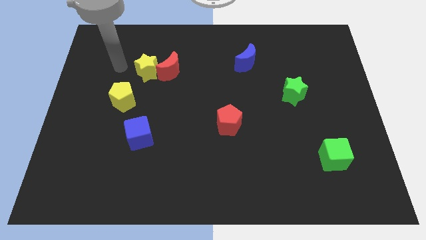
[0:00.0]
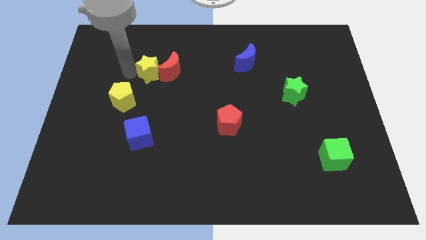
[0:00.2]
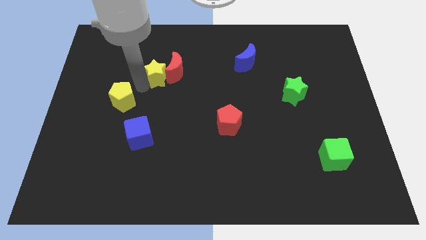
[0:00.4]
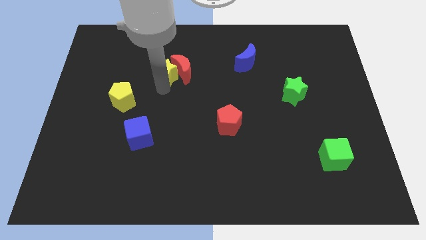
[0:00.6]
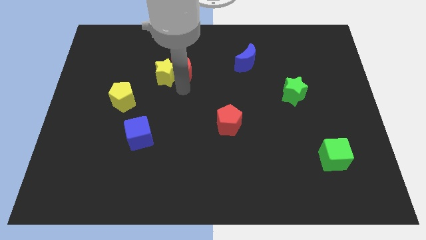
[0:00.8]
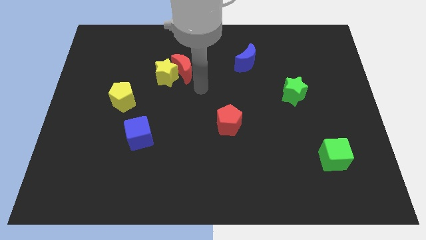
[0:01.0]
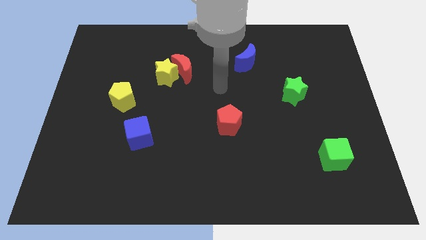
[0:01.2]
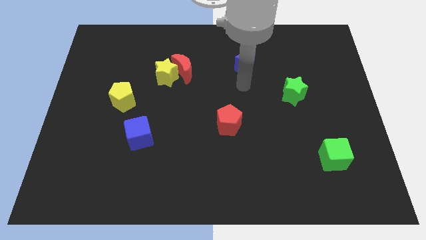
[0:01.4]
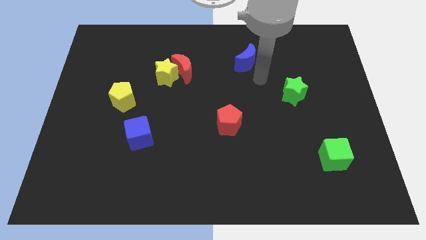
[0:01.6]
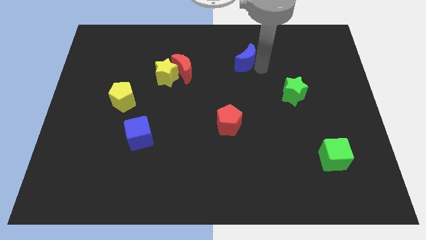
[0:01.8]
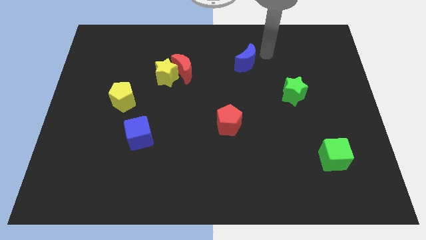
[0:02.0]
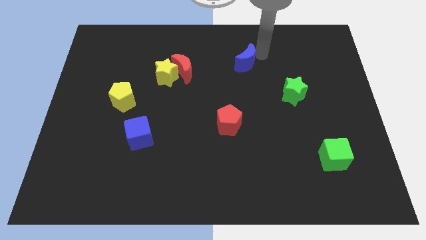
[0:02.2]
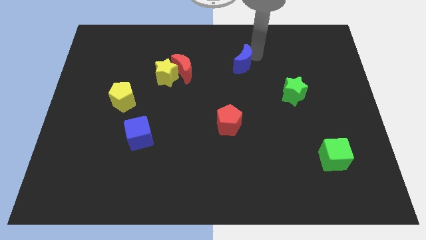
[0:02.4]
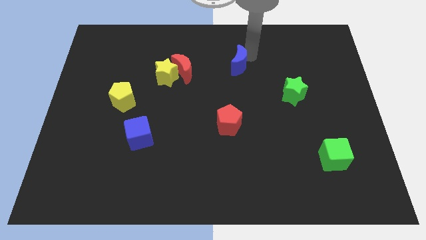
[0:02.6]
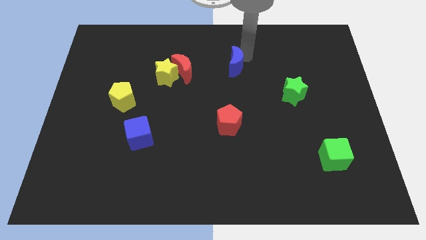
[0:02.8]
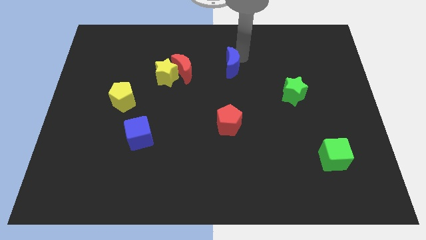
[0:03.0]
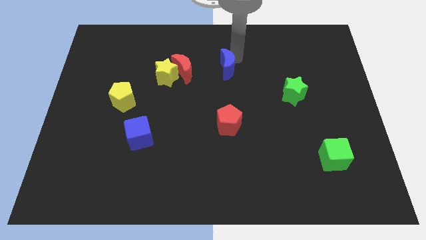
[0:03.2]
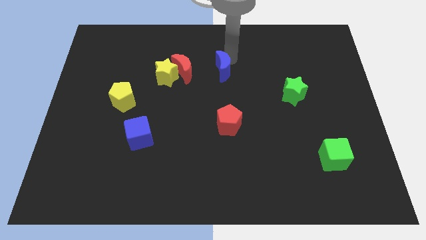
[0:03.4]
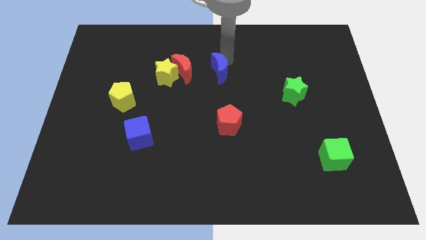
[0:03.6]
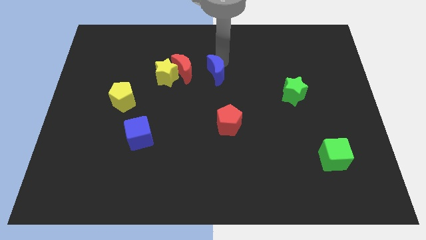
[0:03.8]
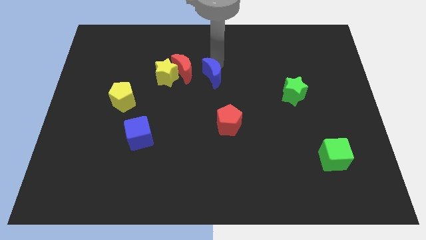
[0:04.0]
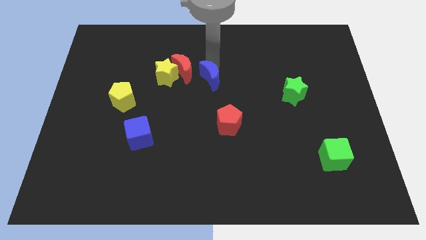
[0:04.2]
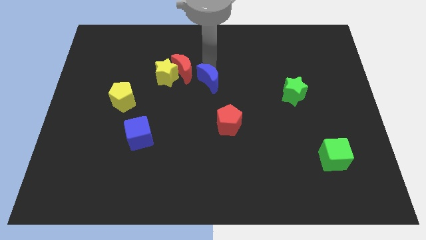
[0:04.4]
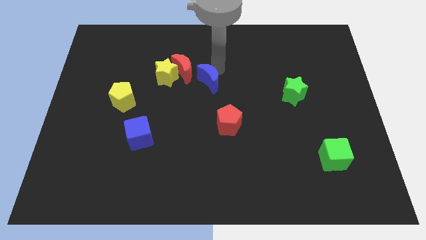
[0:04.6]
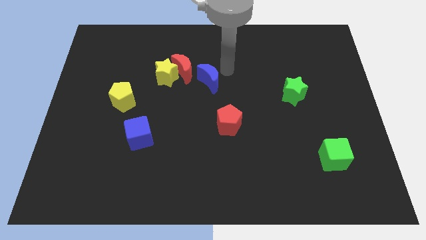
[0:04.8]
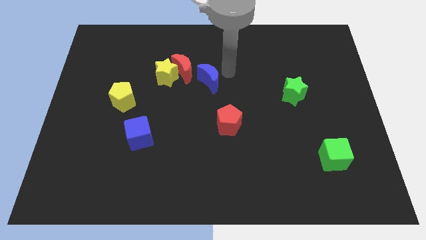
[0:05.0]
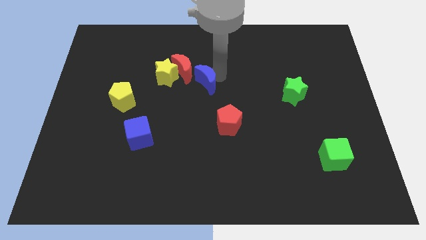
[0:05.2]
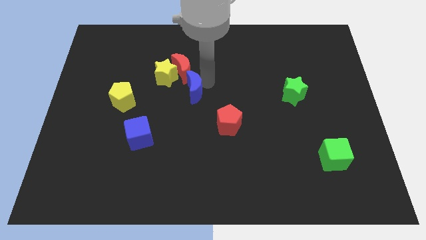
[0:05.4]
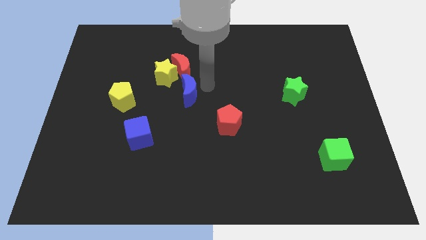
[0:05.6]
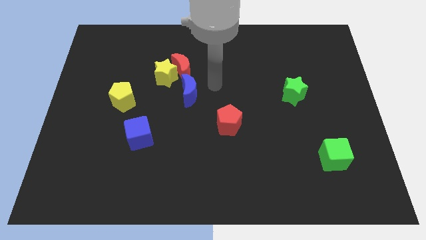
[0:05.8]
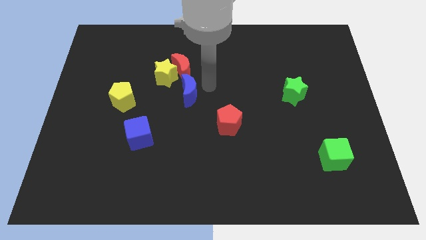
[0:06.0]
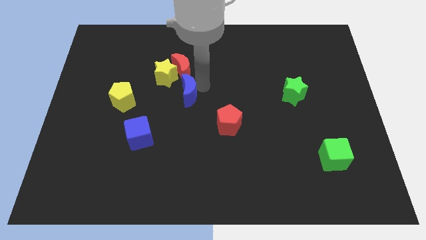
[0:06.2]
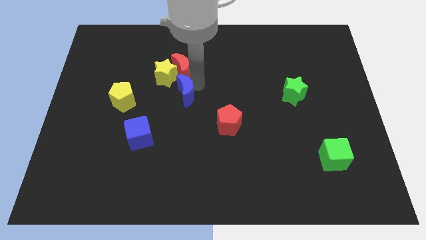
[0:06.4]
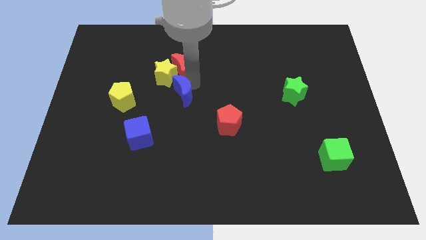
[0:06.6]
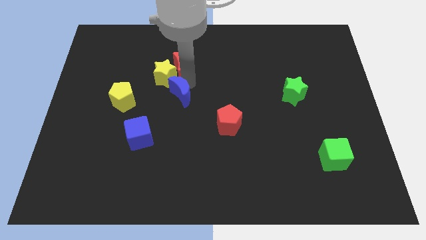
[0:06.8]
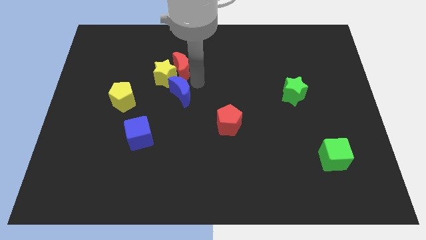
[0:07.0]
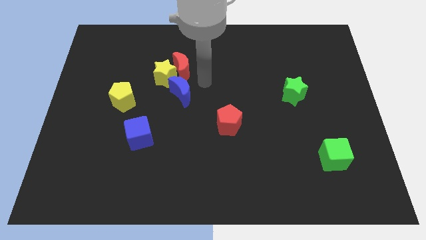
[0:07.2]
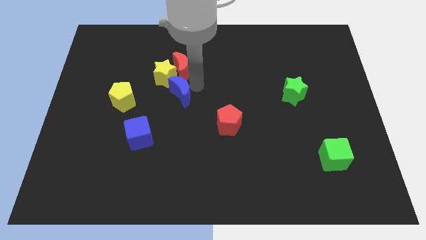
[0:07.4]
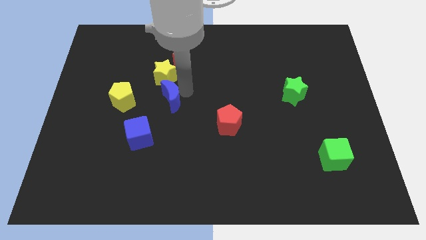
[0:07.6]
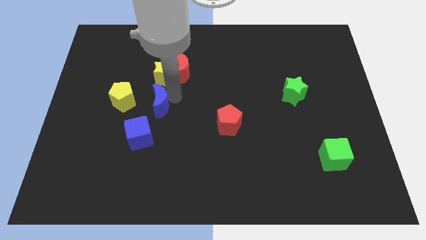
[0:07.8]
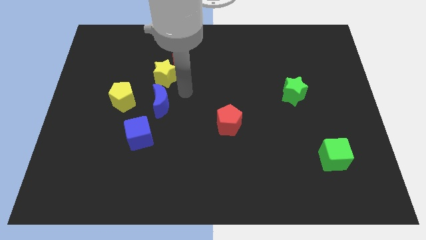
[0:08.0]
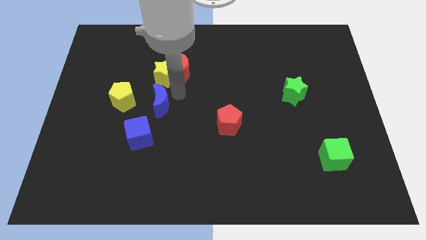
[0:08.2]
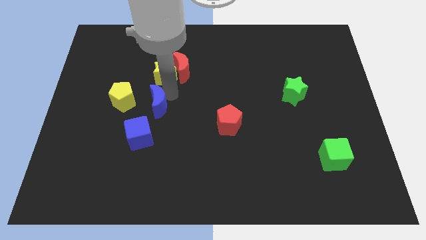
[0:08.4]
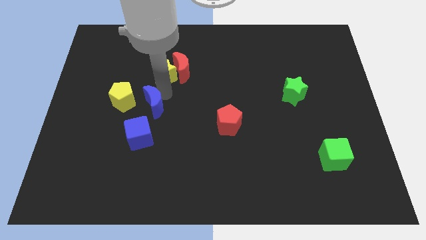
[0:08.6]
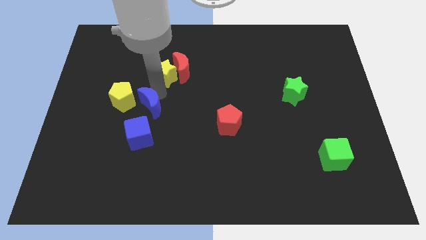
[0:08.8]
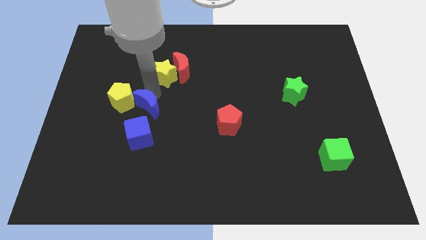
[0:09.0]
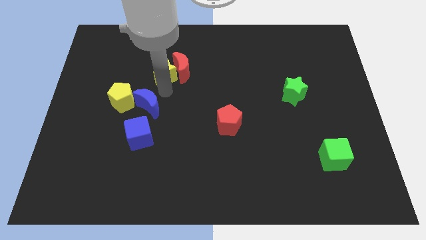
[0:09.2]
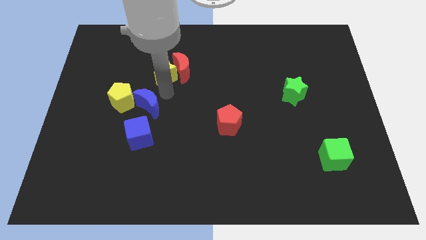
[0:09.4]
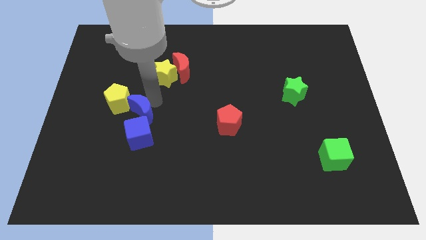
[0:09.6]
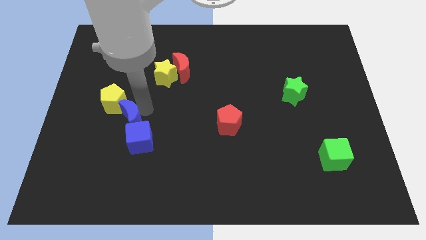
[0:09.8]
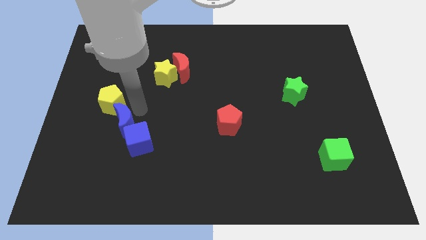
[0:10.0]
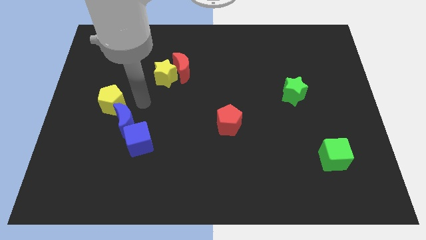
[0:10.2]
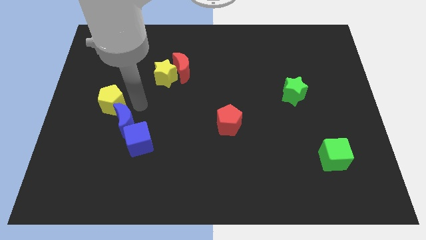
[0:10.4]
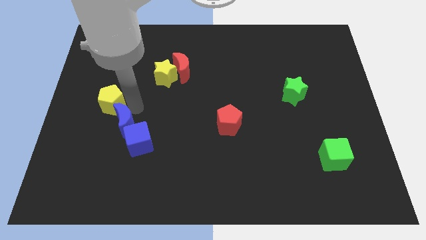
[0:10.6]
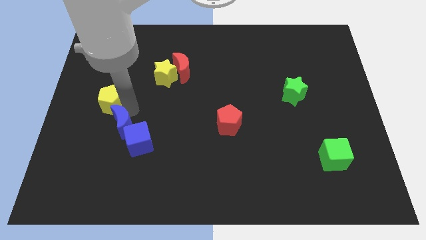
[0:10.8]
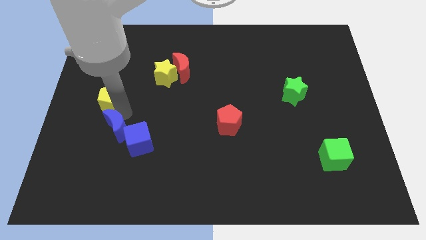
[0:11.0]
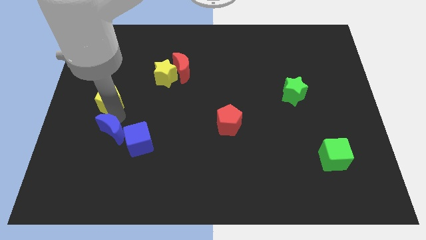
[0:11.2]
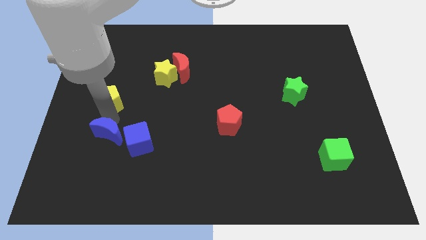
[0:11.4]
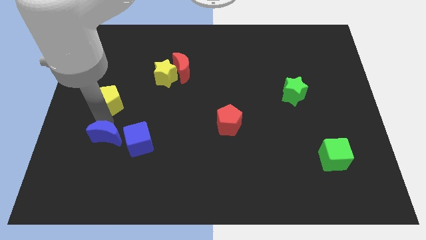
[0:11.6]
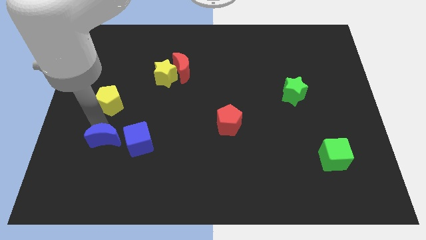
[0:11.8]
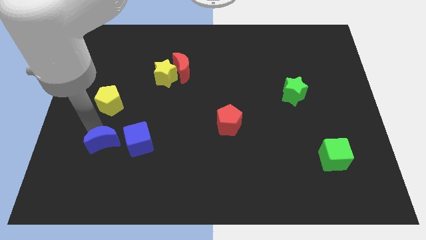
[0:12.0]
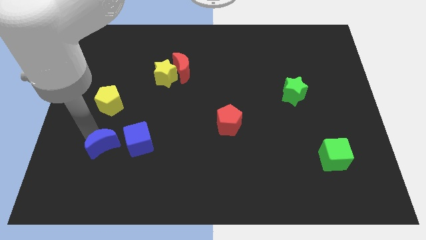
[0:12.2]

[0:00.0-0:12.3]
put the blue moon to the bottom left of the blue cube

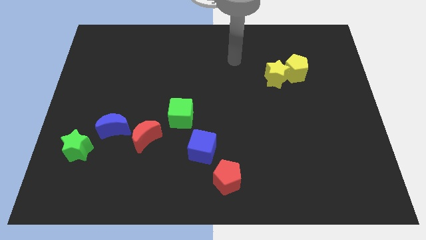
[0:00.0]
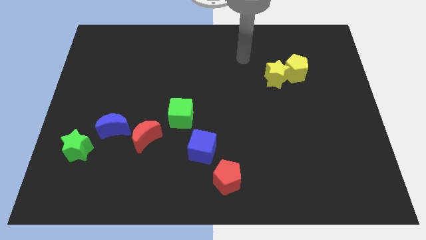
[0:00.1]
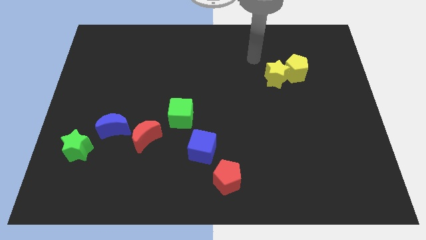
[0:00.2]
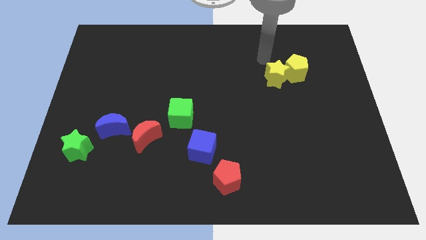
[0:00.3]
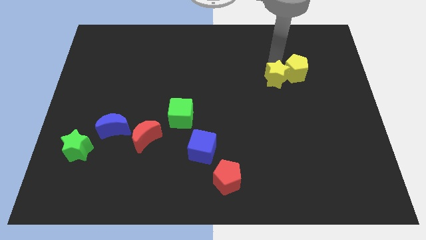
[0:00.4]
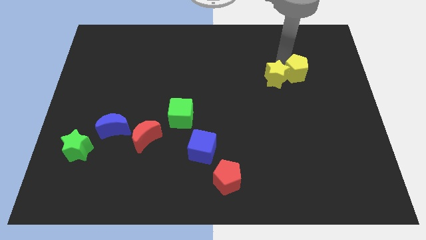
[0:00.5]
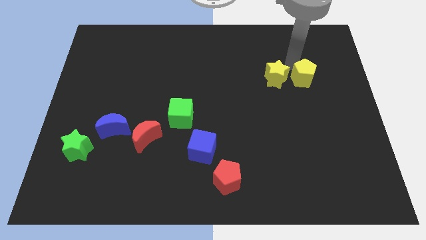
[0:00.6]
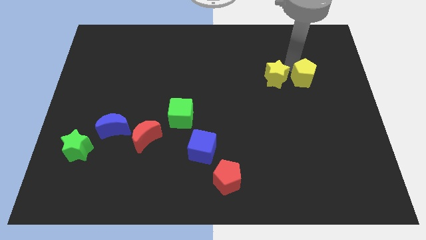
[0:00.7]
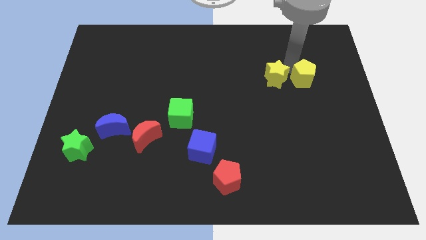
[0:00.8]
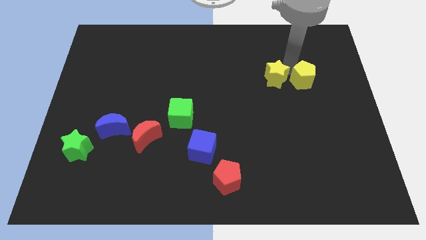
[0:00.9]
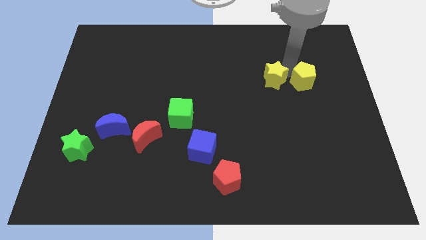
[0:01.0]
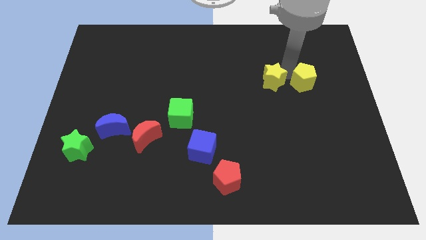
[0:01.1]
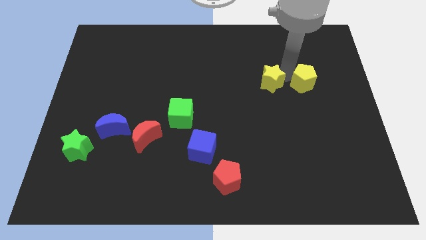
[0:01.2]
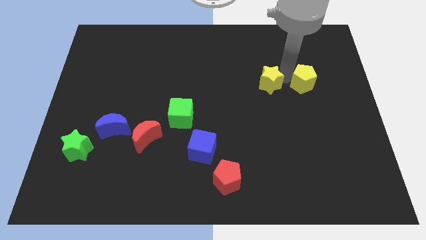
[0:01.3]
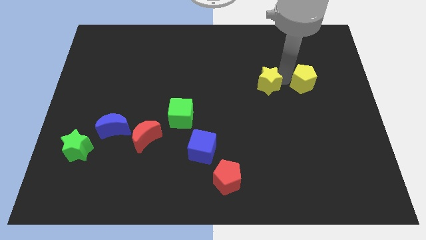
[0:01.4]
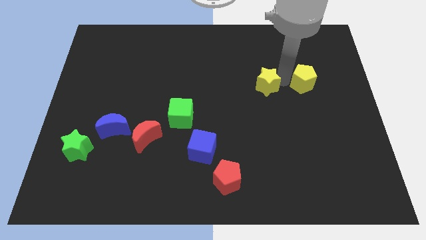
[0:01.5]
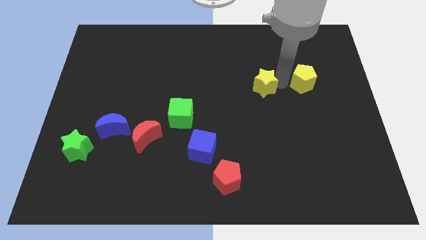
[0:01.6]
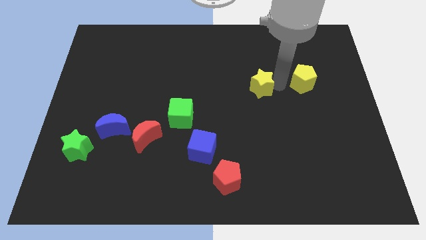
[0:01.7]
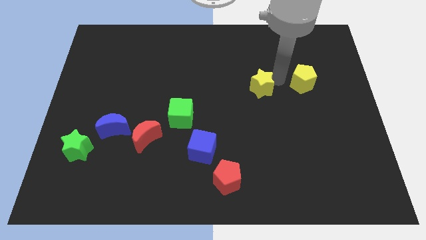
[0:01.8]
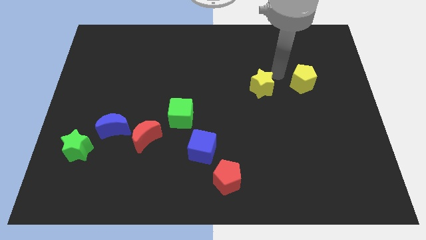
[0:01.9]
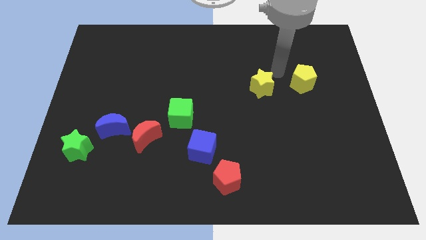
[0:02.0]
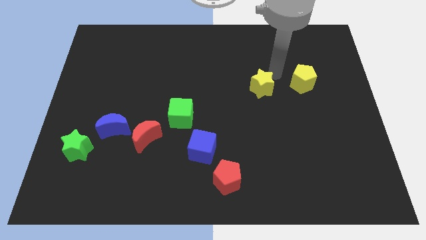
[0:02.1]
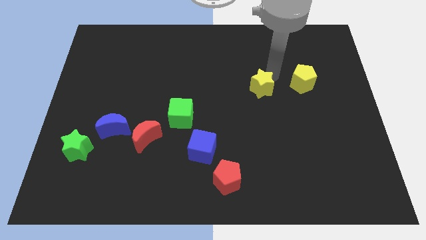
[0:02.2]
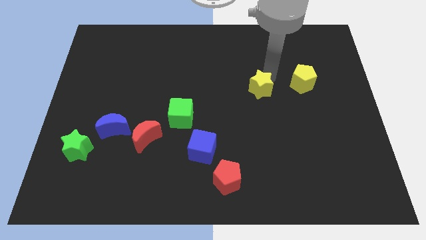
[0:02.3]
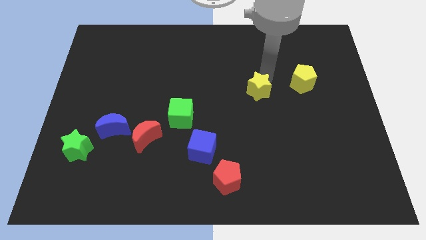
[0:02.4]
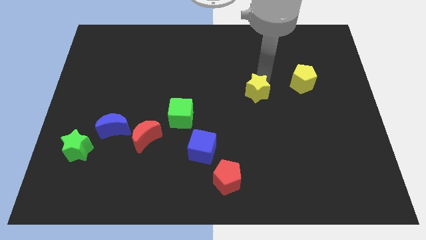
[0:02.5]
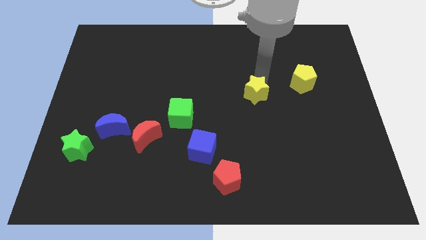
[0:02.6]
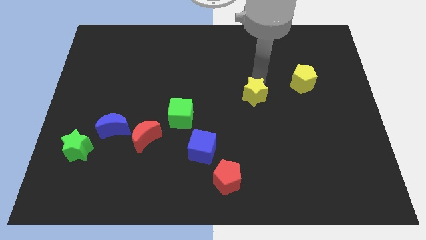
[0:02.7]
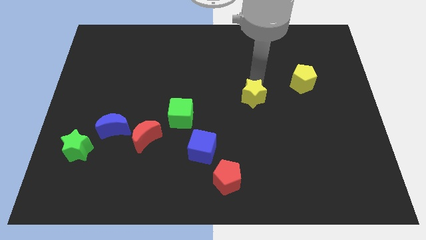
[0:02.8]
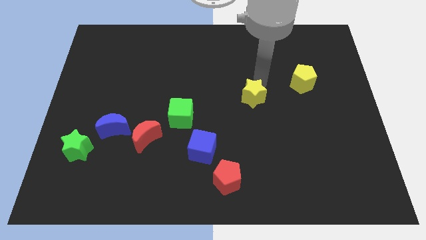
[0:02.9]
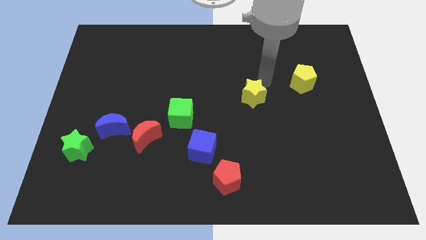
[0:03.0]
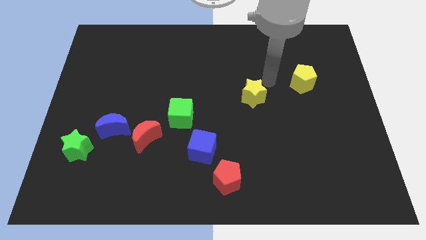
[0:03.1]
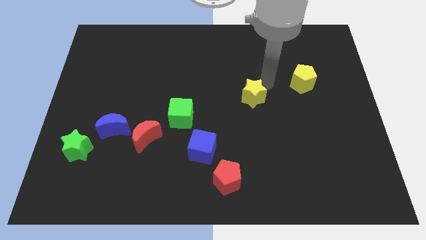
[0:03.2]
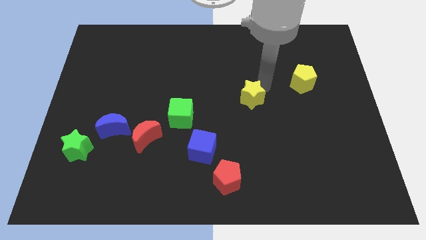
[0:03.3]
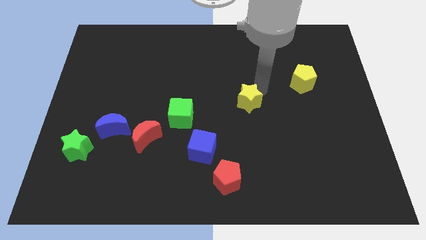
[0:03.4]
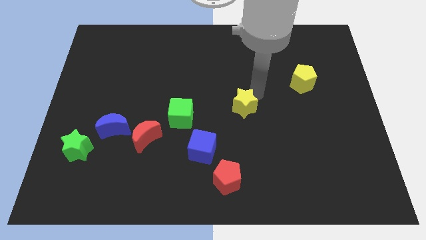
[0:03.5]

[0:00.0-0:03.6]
slide the yellow star right of the green cube
